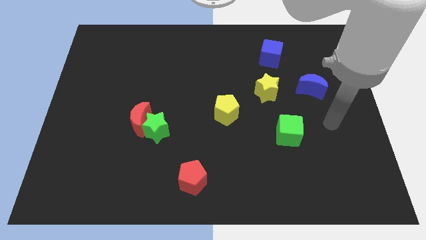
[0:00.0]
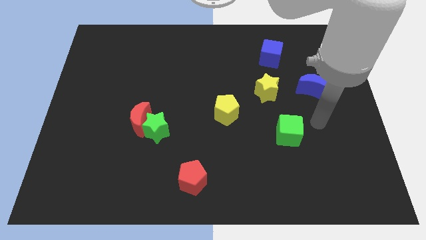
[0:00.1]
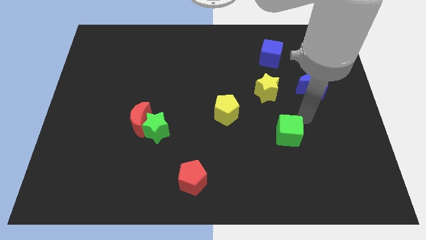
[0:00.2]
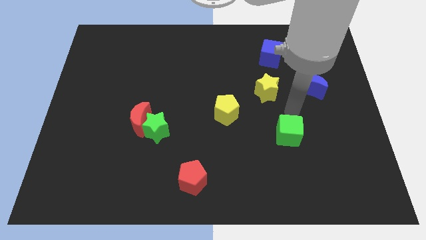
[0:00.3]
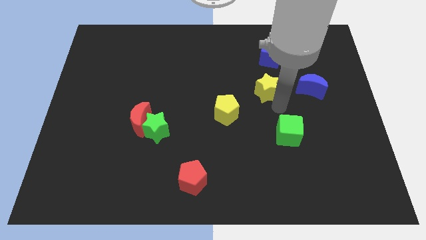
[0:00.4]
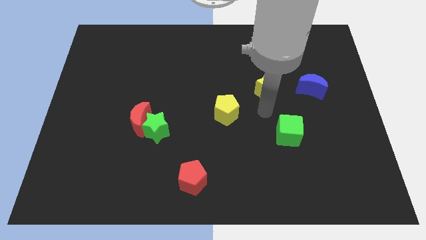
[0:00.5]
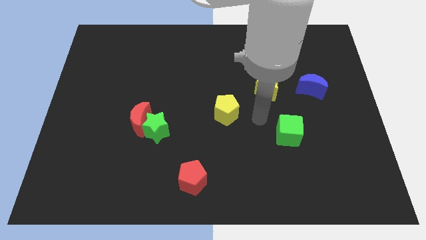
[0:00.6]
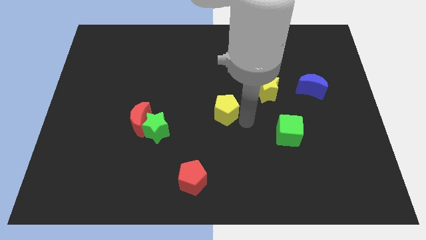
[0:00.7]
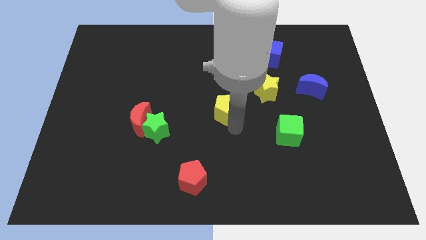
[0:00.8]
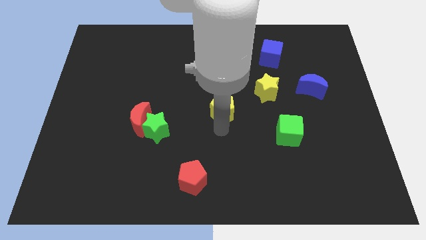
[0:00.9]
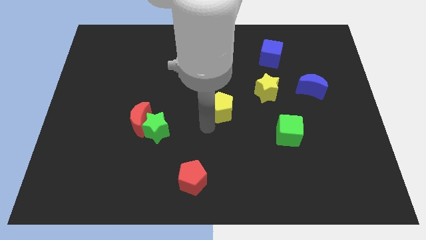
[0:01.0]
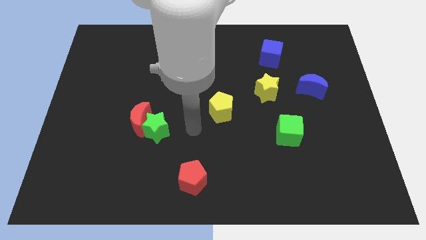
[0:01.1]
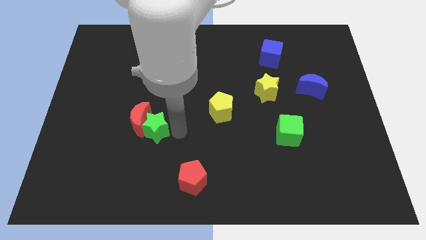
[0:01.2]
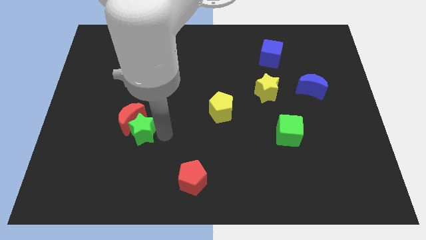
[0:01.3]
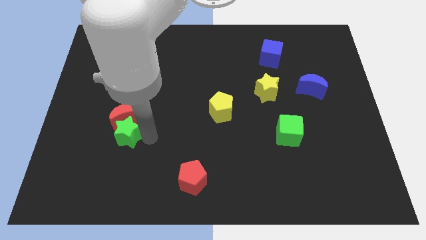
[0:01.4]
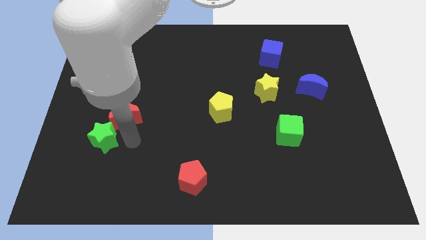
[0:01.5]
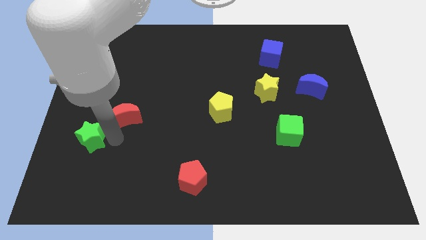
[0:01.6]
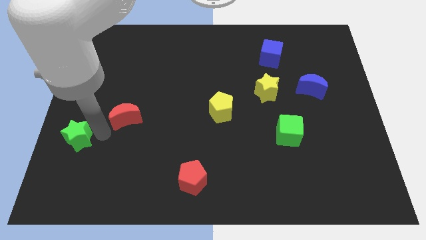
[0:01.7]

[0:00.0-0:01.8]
separate the red moon from the green star

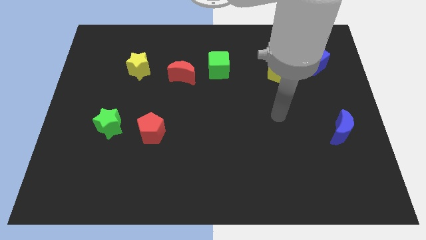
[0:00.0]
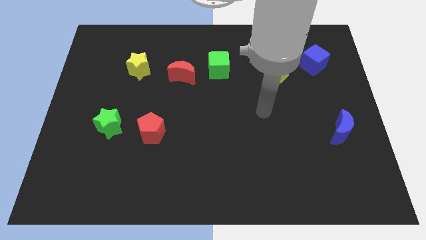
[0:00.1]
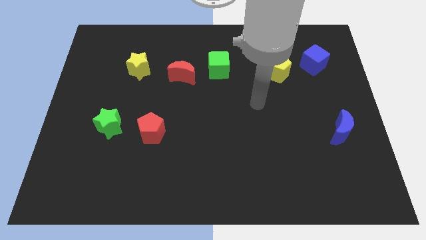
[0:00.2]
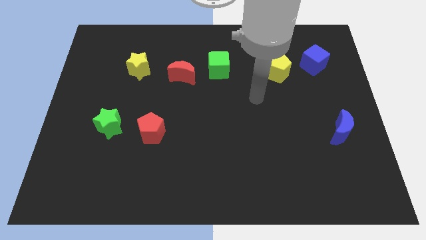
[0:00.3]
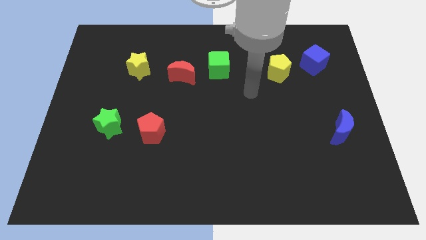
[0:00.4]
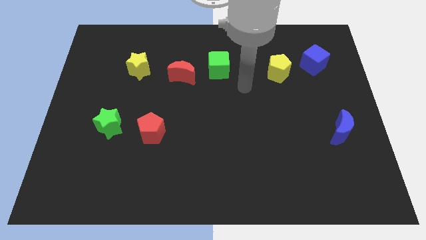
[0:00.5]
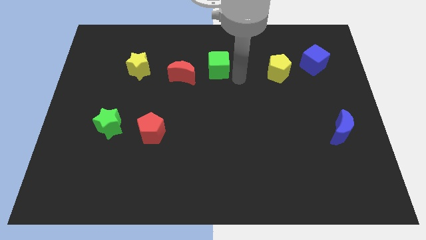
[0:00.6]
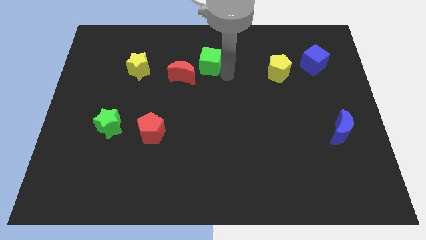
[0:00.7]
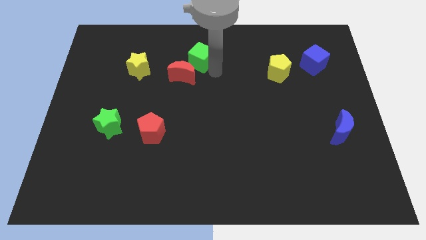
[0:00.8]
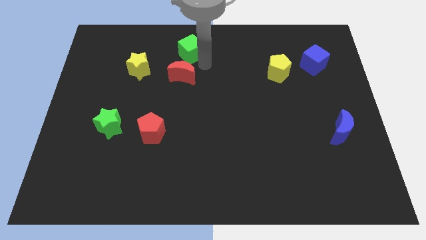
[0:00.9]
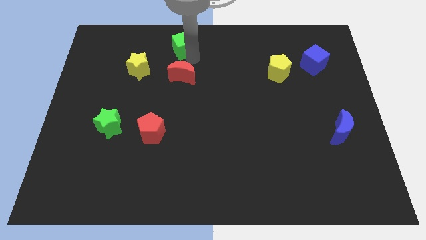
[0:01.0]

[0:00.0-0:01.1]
pull the red moon apart from the green cube

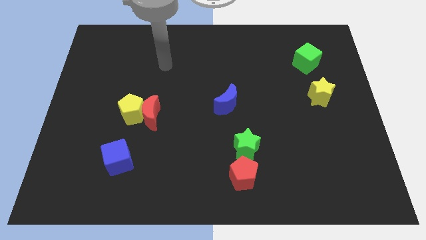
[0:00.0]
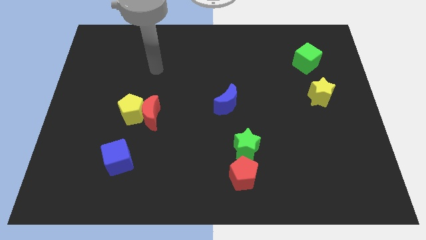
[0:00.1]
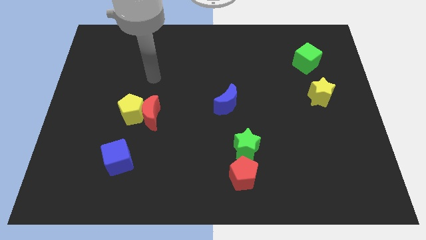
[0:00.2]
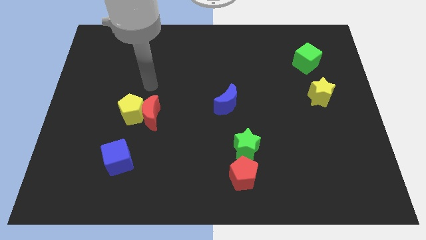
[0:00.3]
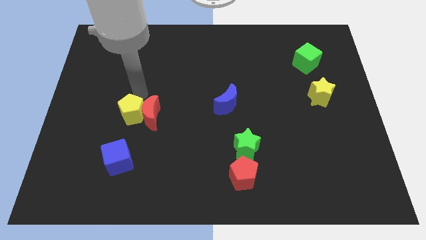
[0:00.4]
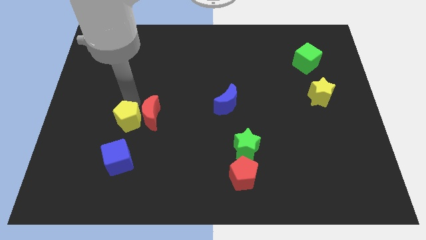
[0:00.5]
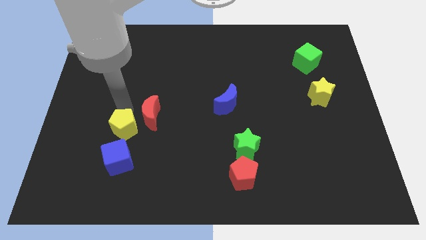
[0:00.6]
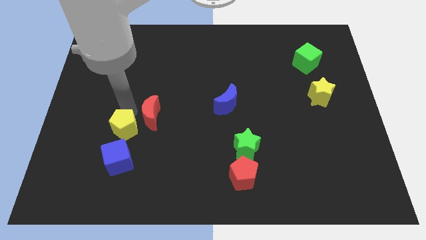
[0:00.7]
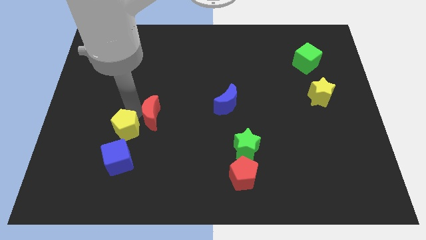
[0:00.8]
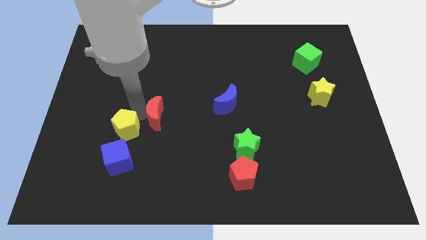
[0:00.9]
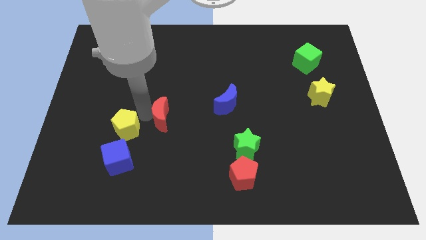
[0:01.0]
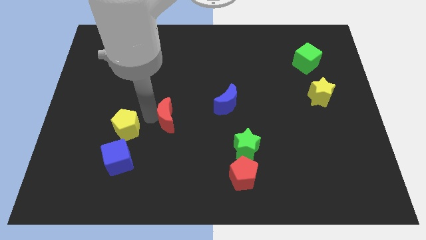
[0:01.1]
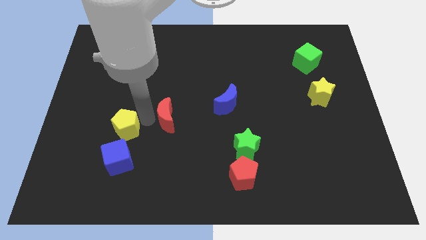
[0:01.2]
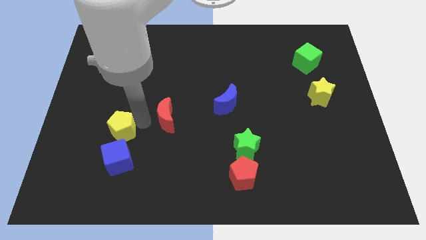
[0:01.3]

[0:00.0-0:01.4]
move the red moon away from the yellow pentagon

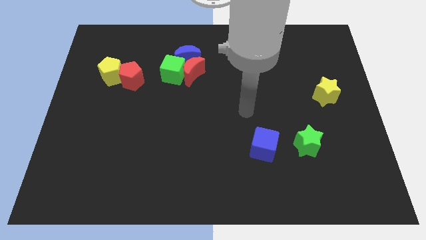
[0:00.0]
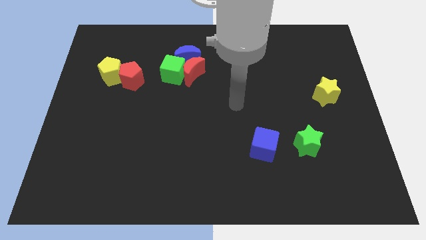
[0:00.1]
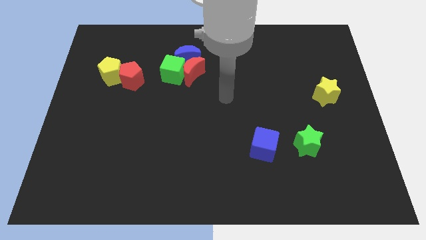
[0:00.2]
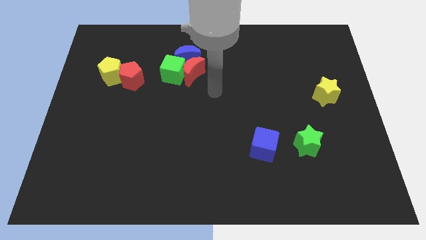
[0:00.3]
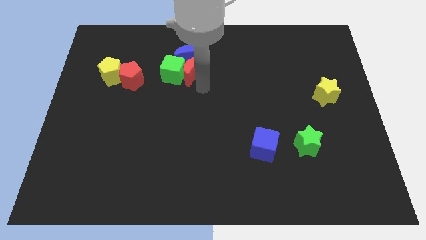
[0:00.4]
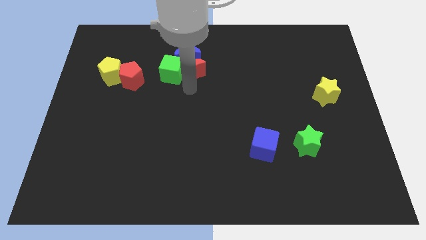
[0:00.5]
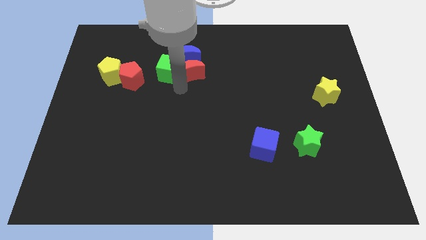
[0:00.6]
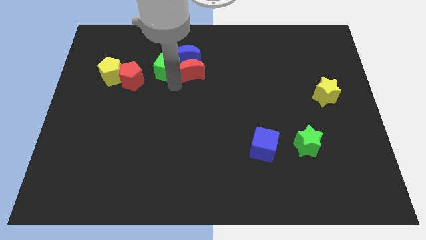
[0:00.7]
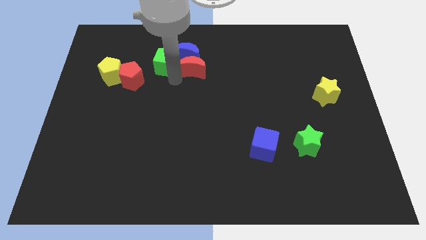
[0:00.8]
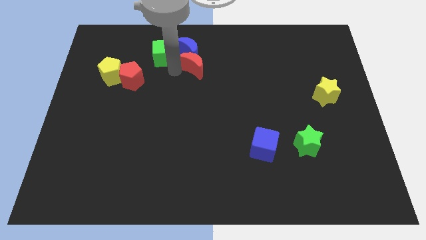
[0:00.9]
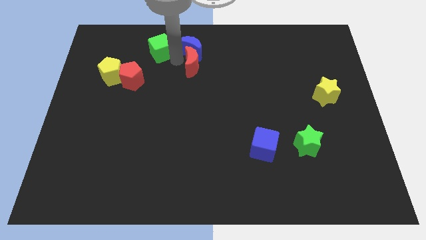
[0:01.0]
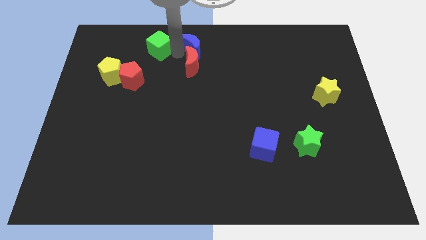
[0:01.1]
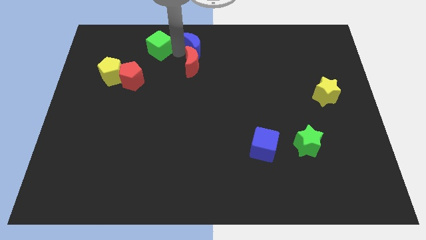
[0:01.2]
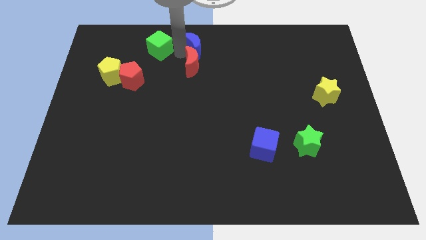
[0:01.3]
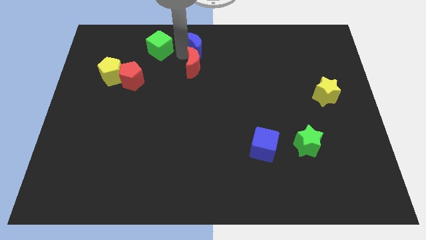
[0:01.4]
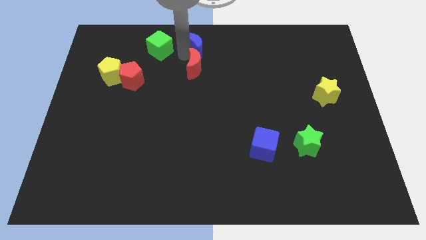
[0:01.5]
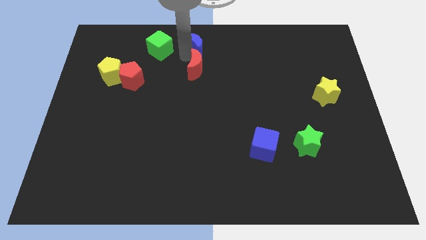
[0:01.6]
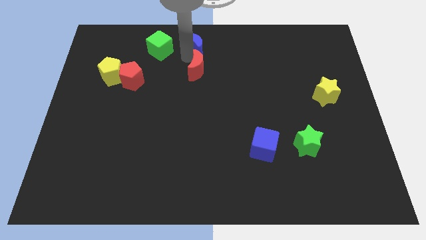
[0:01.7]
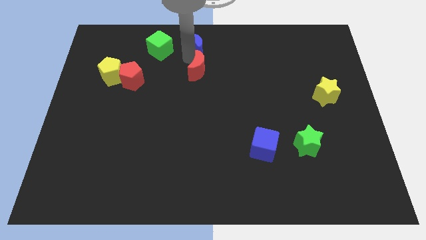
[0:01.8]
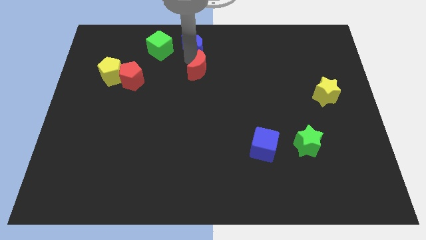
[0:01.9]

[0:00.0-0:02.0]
pull the red moon apart from the green cube and blue moon

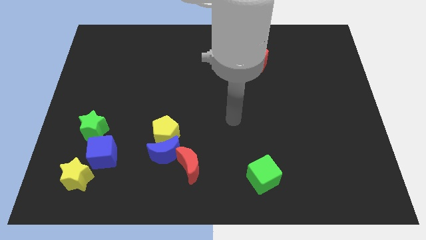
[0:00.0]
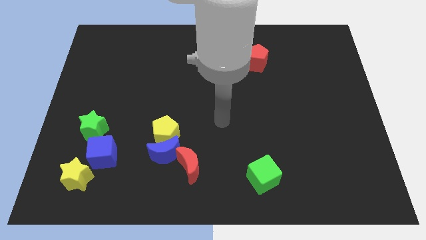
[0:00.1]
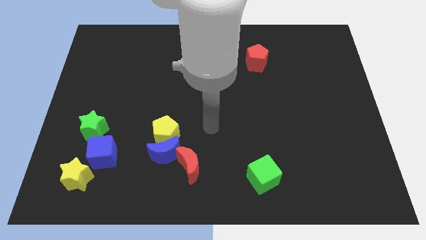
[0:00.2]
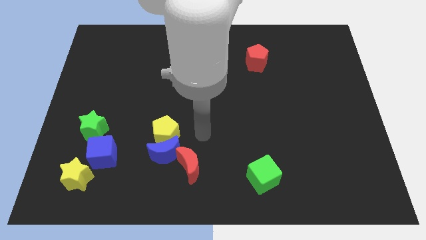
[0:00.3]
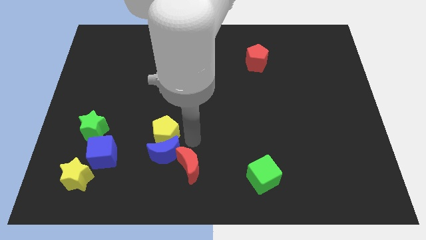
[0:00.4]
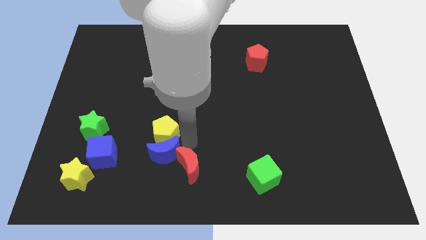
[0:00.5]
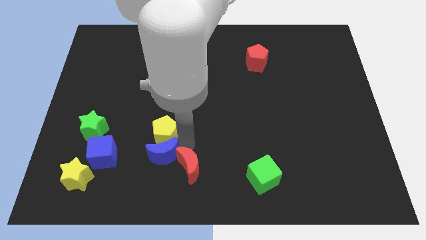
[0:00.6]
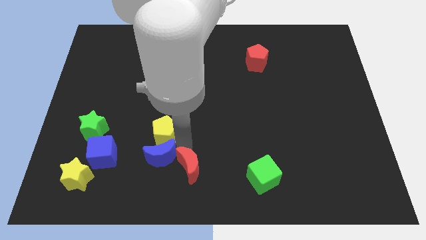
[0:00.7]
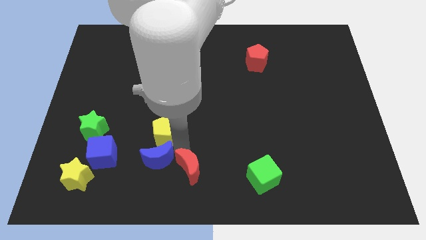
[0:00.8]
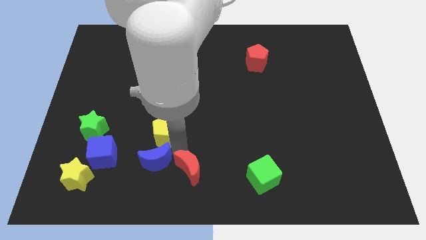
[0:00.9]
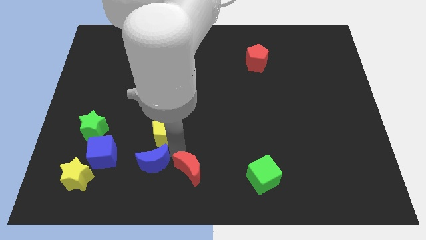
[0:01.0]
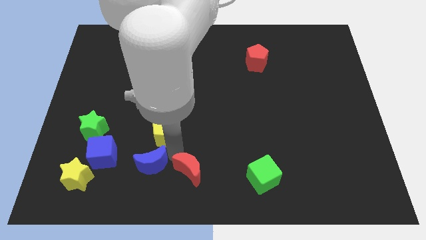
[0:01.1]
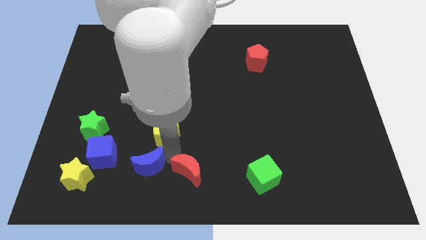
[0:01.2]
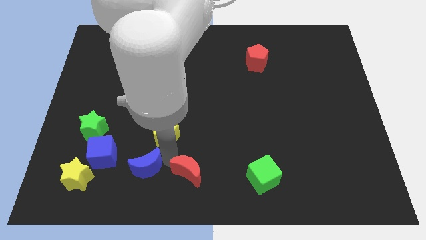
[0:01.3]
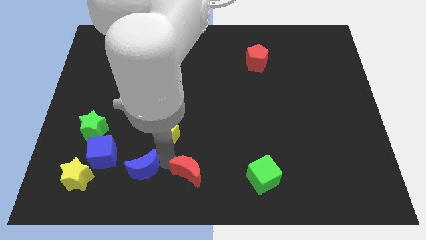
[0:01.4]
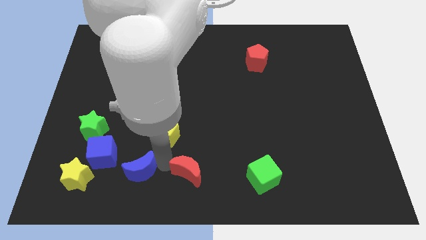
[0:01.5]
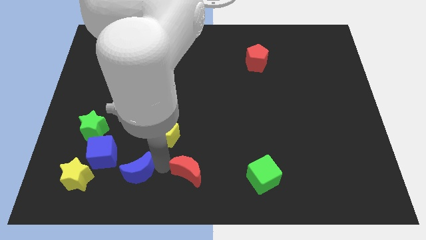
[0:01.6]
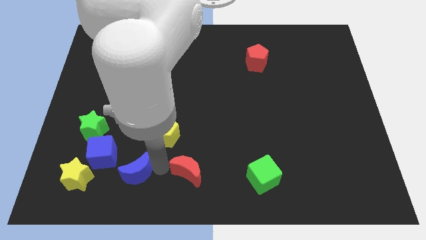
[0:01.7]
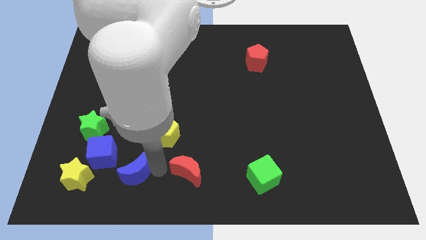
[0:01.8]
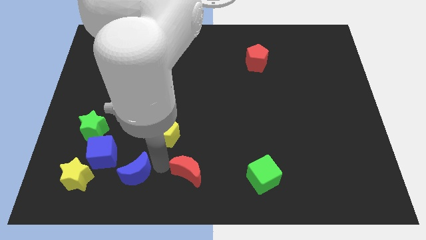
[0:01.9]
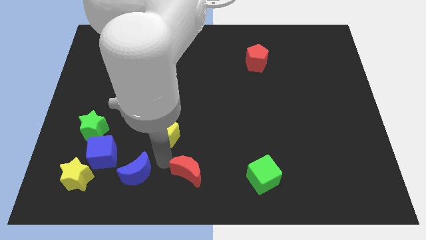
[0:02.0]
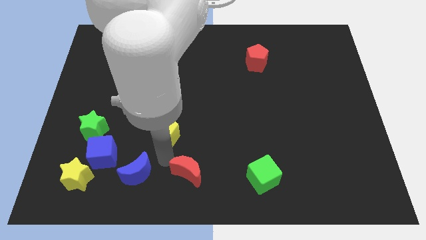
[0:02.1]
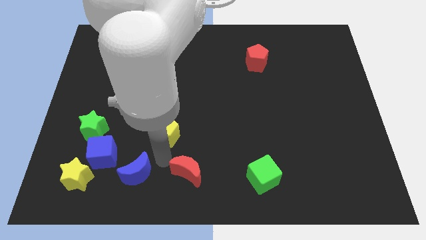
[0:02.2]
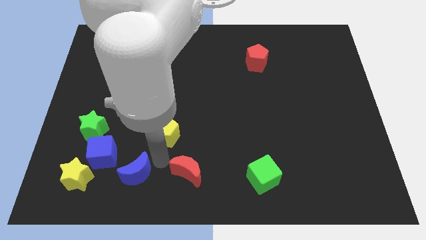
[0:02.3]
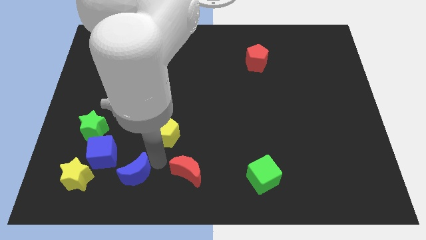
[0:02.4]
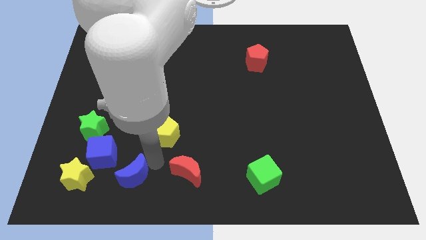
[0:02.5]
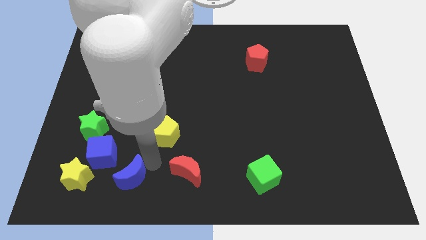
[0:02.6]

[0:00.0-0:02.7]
move the blue moon away from the yellow pentagon and red moon

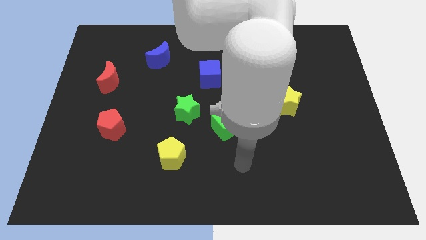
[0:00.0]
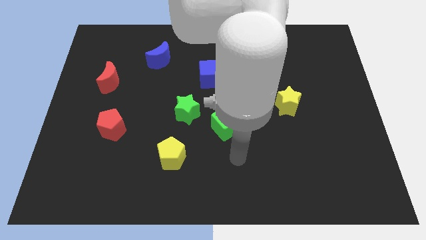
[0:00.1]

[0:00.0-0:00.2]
separate the green cube from the green star
